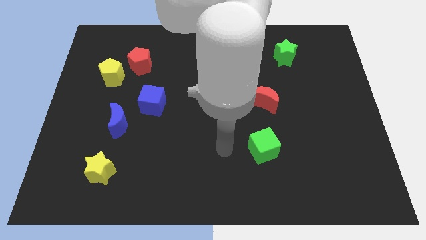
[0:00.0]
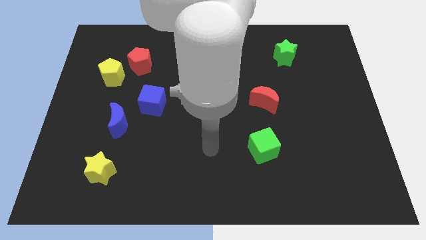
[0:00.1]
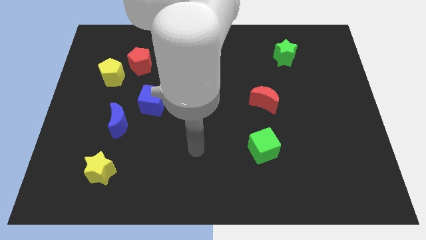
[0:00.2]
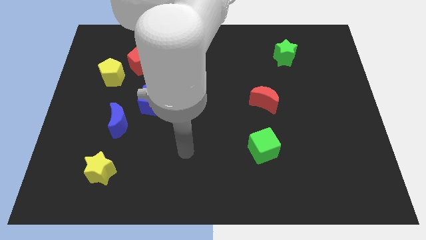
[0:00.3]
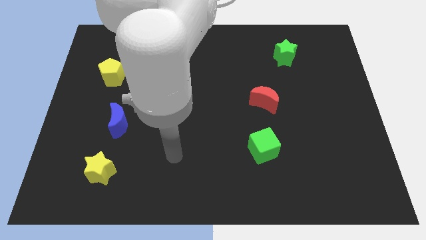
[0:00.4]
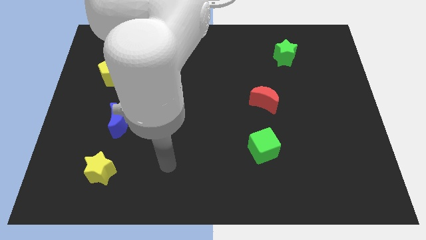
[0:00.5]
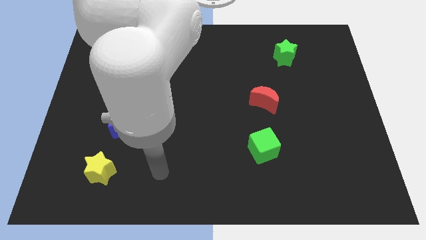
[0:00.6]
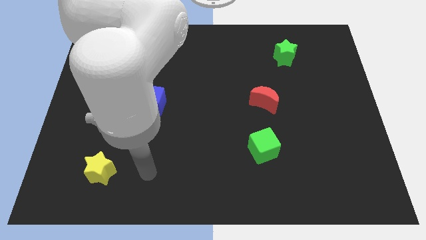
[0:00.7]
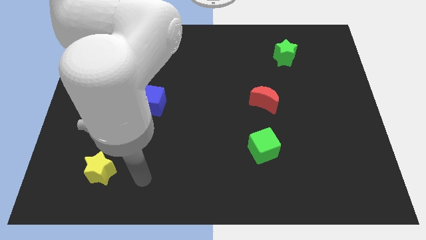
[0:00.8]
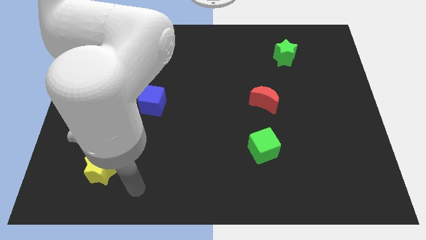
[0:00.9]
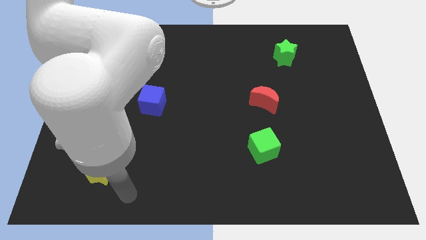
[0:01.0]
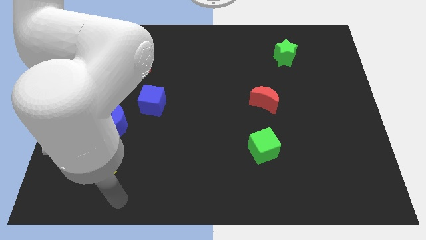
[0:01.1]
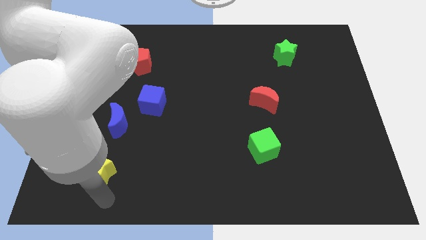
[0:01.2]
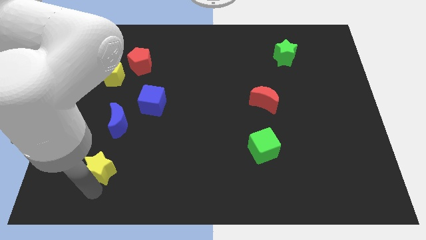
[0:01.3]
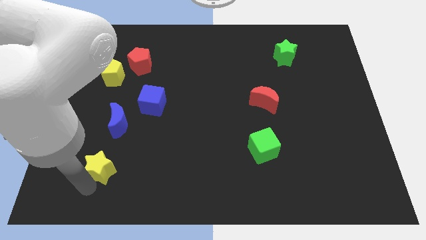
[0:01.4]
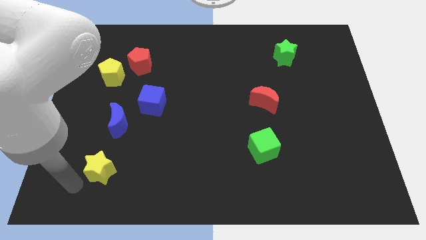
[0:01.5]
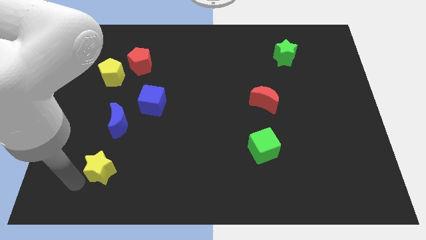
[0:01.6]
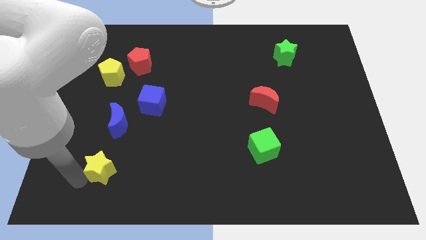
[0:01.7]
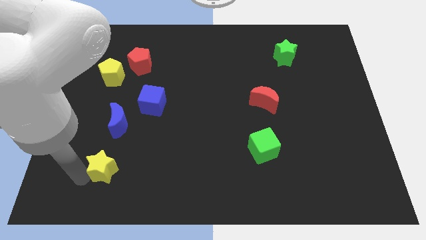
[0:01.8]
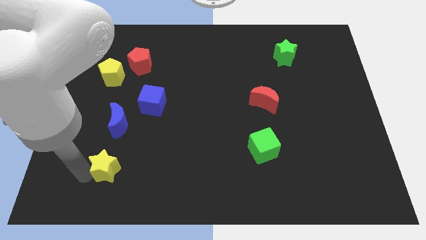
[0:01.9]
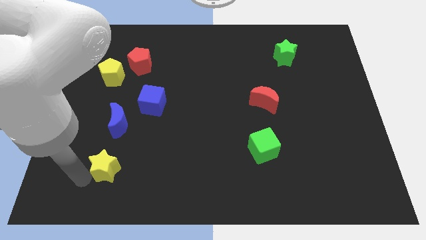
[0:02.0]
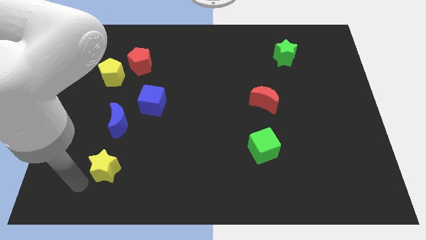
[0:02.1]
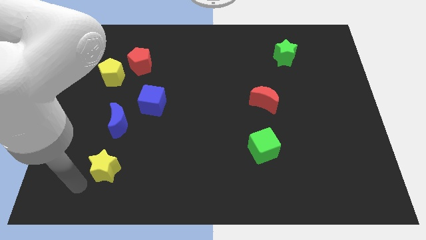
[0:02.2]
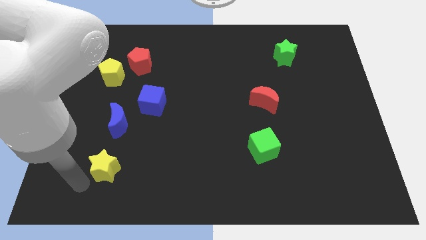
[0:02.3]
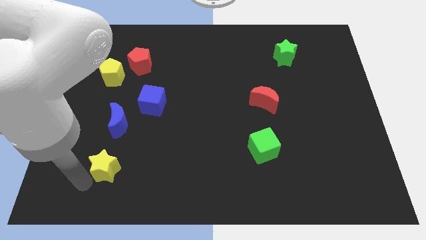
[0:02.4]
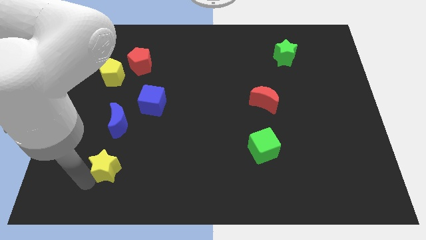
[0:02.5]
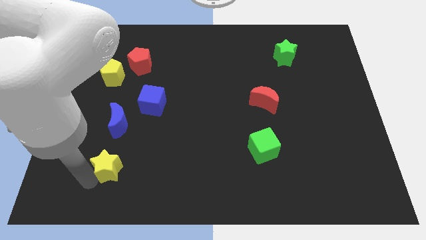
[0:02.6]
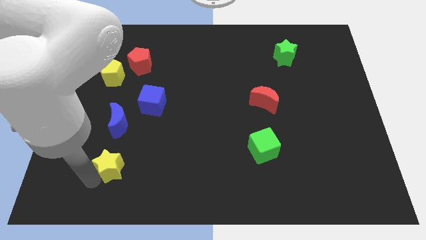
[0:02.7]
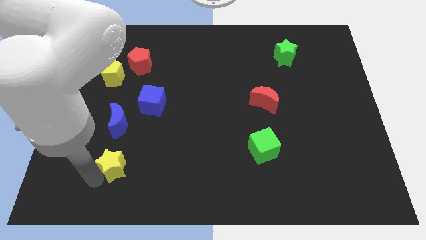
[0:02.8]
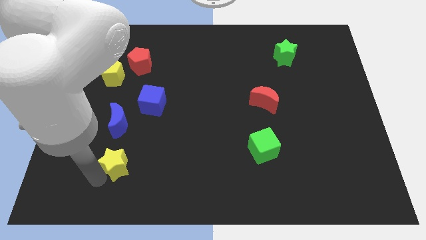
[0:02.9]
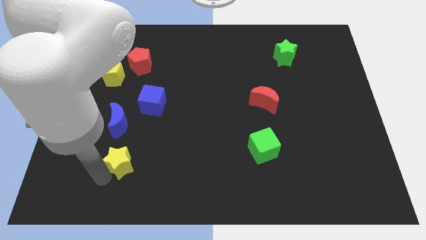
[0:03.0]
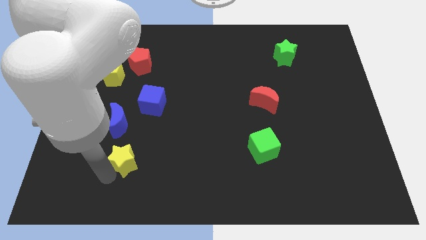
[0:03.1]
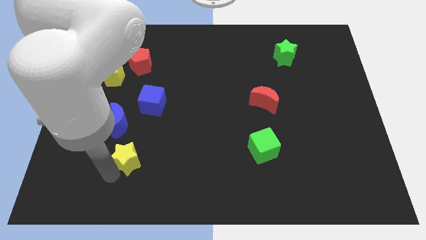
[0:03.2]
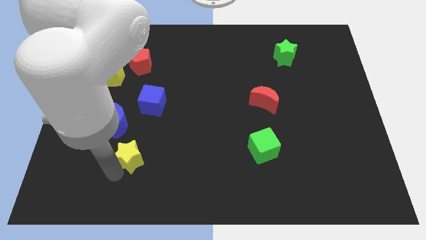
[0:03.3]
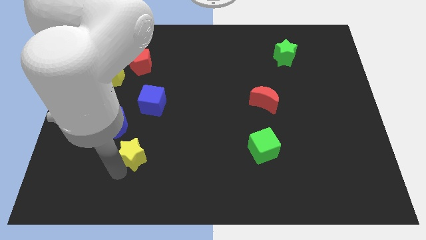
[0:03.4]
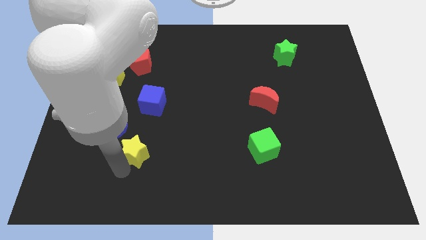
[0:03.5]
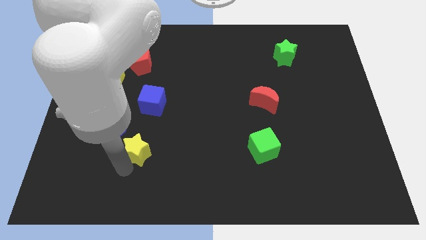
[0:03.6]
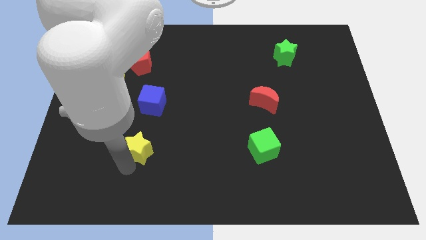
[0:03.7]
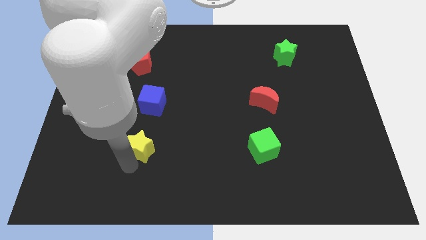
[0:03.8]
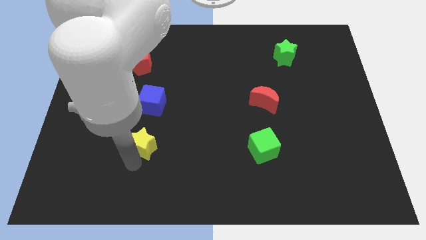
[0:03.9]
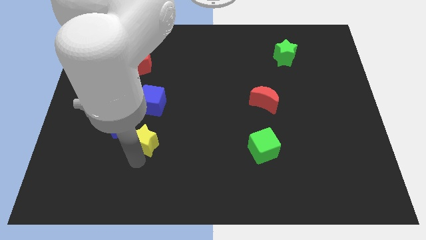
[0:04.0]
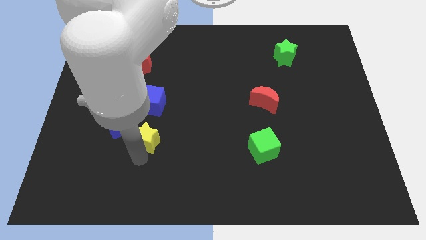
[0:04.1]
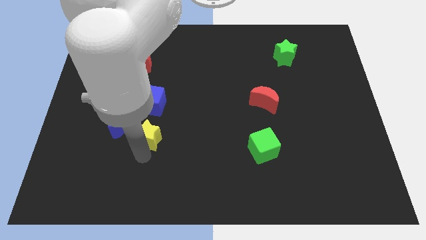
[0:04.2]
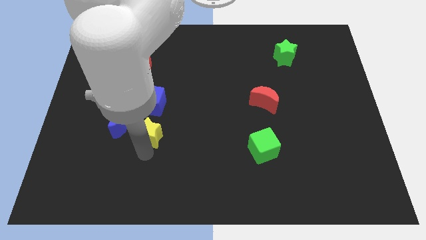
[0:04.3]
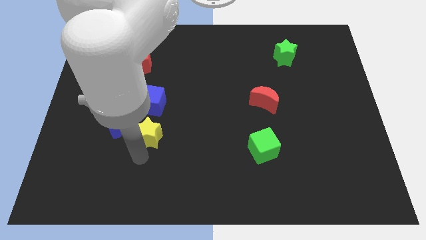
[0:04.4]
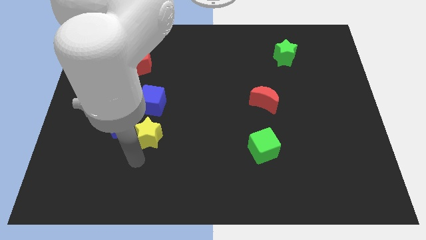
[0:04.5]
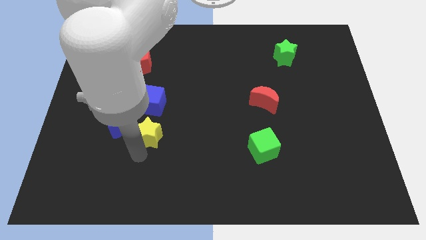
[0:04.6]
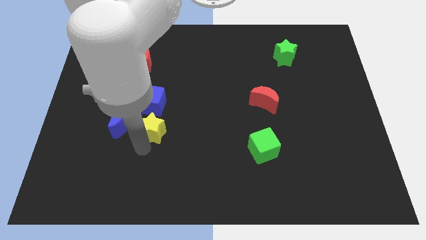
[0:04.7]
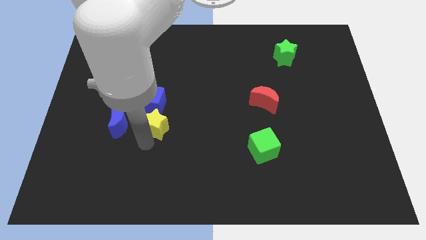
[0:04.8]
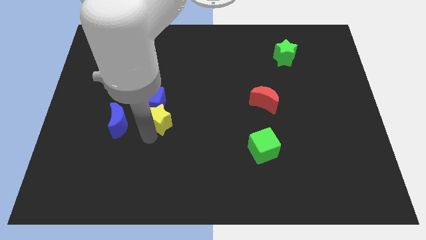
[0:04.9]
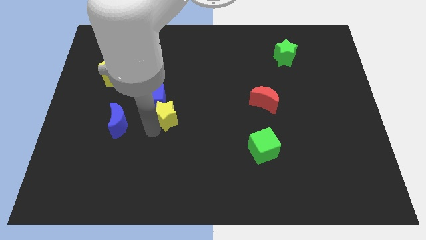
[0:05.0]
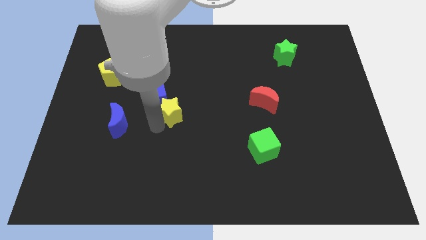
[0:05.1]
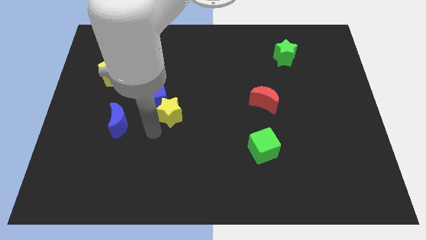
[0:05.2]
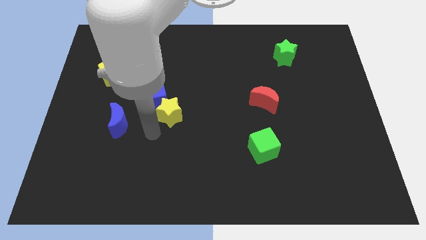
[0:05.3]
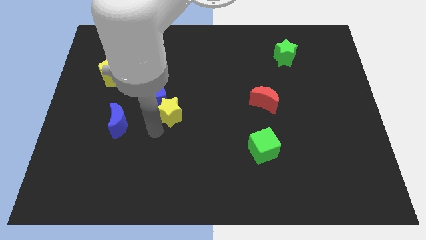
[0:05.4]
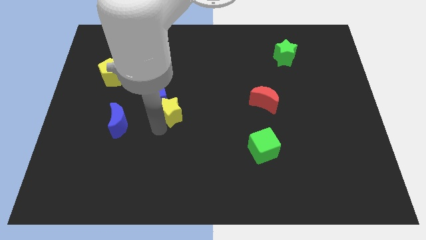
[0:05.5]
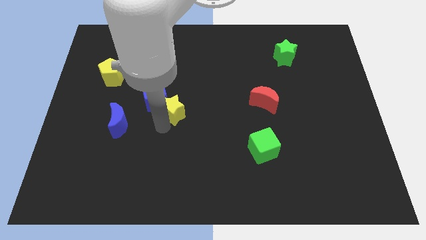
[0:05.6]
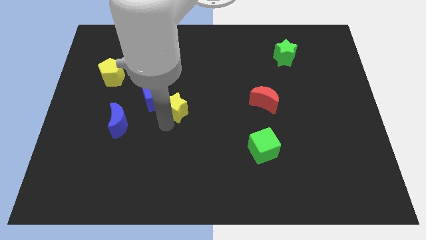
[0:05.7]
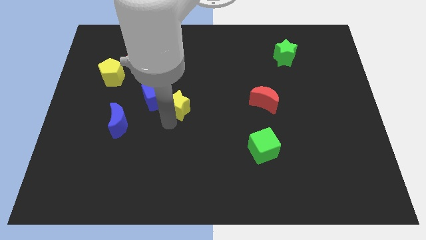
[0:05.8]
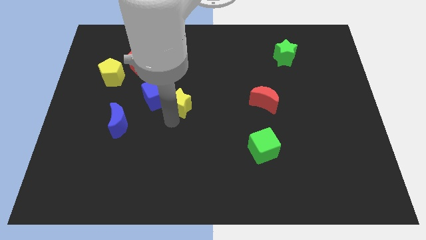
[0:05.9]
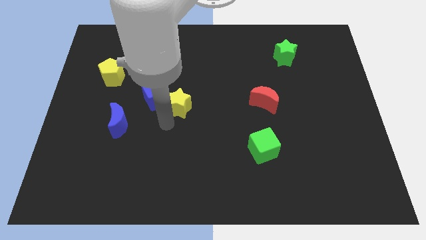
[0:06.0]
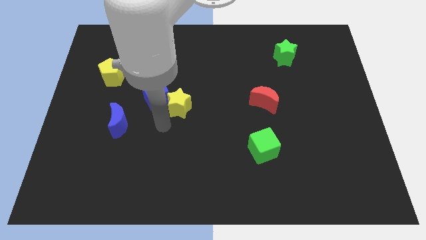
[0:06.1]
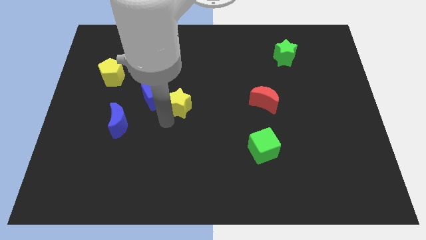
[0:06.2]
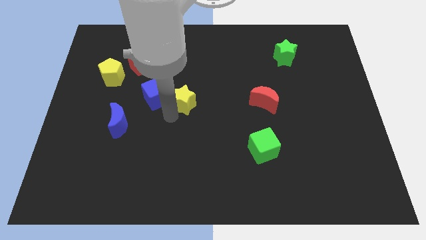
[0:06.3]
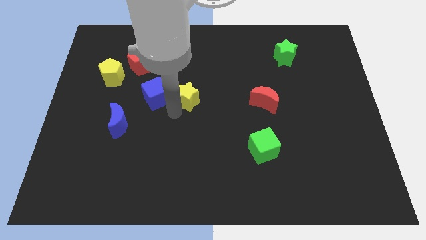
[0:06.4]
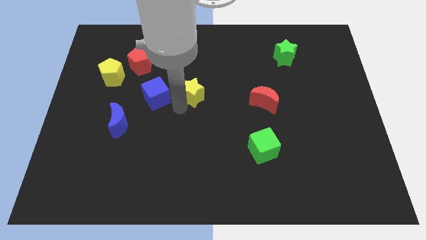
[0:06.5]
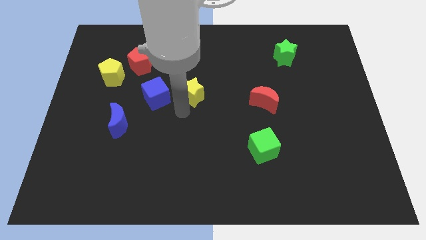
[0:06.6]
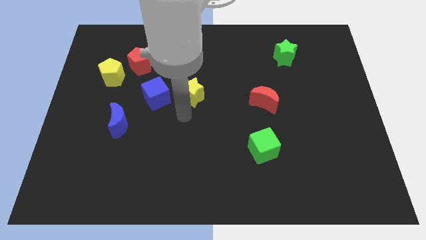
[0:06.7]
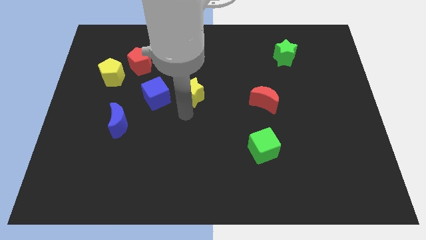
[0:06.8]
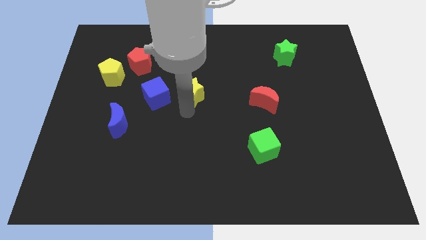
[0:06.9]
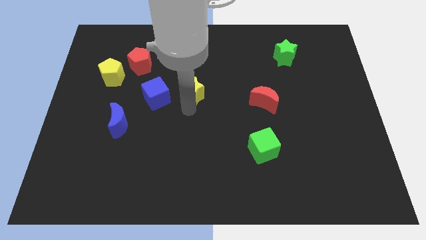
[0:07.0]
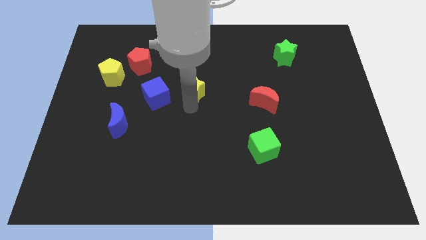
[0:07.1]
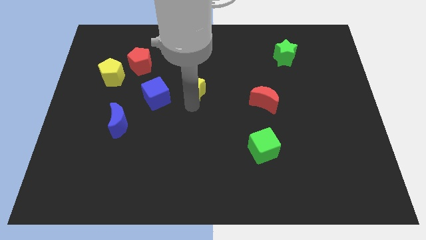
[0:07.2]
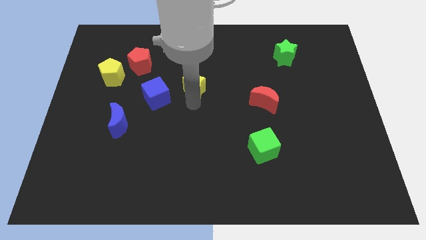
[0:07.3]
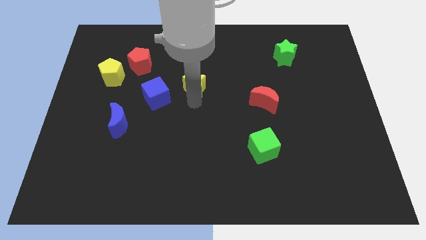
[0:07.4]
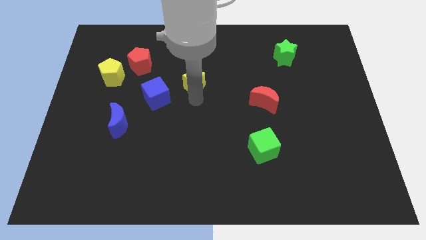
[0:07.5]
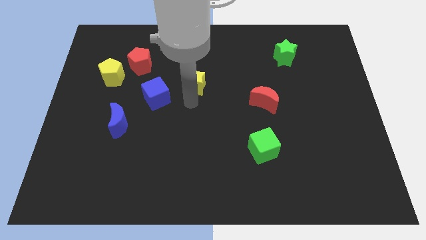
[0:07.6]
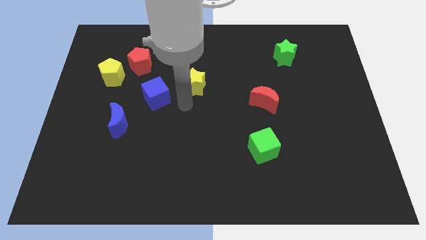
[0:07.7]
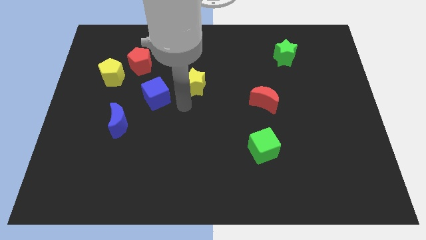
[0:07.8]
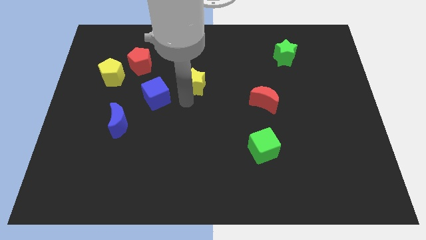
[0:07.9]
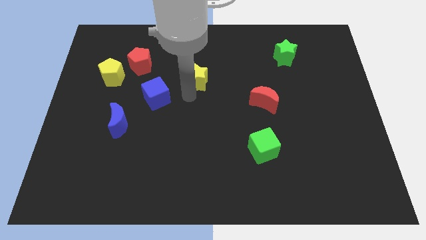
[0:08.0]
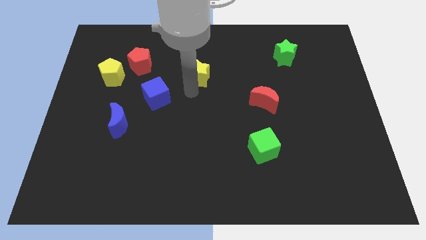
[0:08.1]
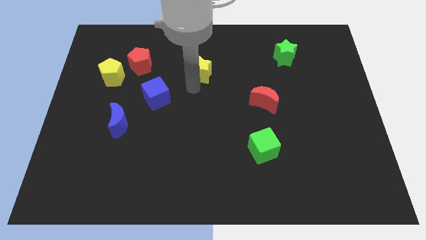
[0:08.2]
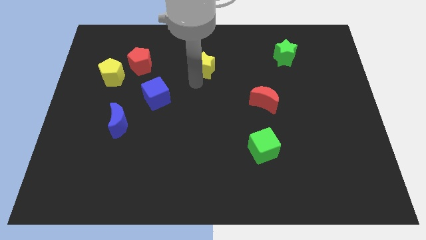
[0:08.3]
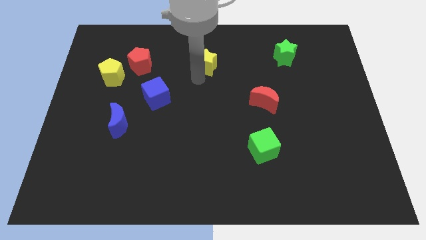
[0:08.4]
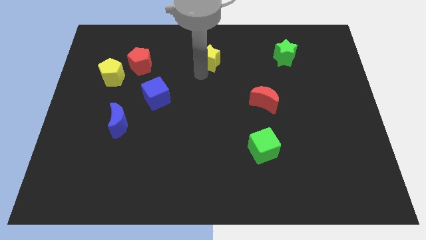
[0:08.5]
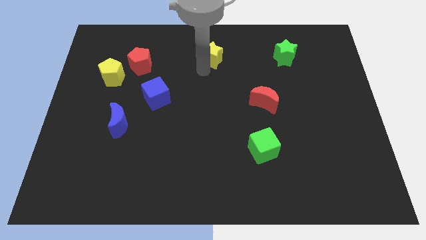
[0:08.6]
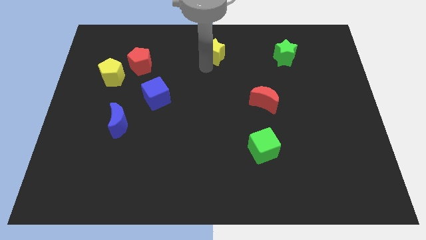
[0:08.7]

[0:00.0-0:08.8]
move the yellow star to the top
